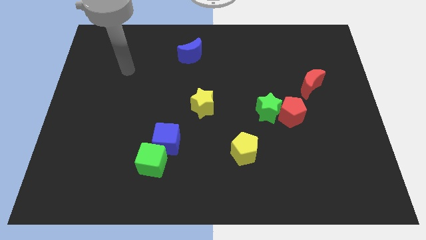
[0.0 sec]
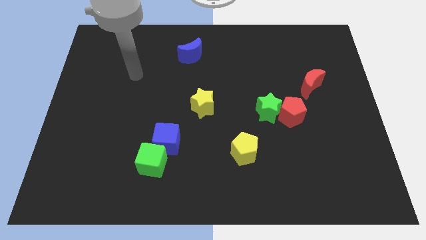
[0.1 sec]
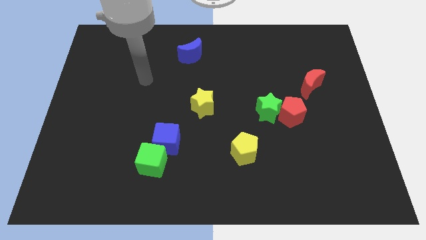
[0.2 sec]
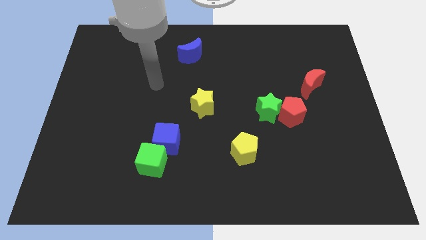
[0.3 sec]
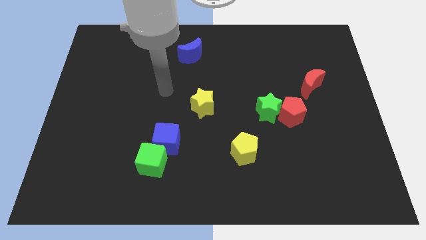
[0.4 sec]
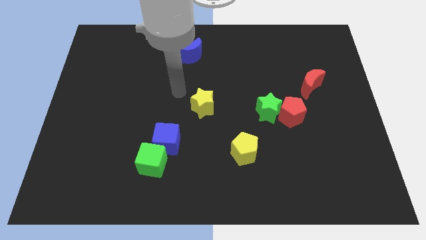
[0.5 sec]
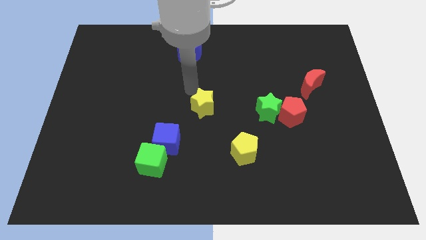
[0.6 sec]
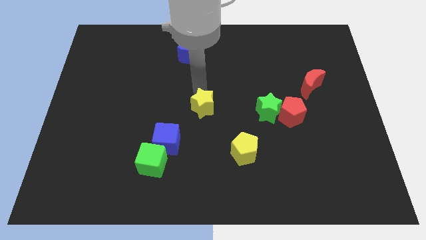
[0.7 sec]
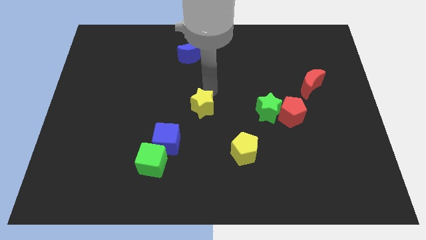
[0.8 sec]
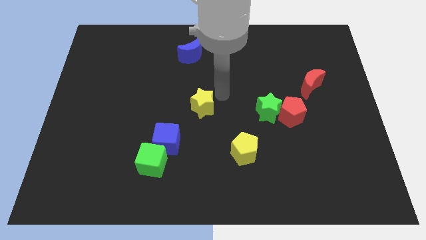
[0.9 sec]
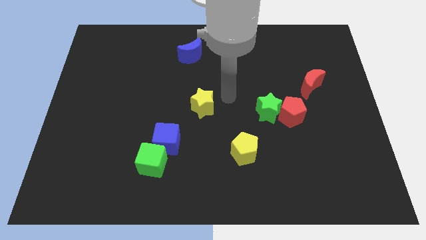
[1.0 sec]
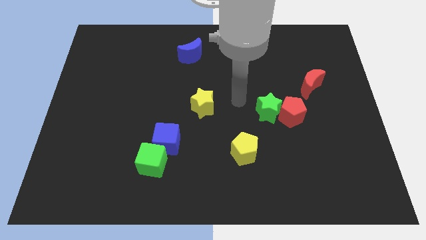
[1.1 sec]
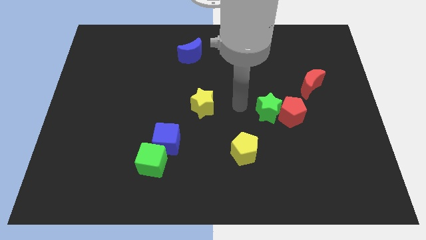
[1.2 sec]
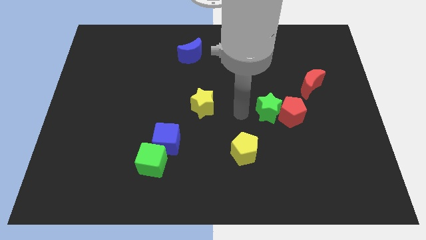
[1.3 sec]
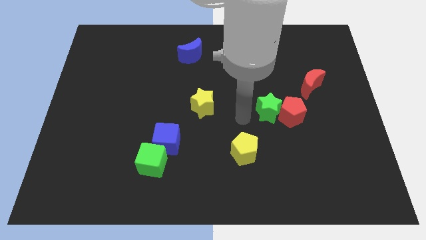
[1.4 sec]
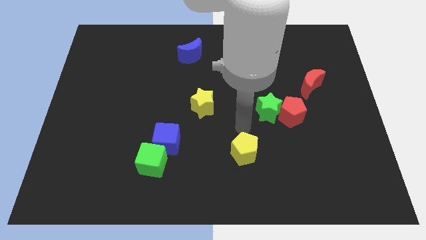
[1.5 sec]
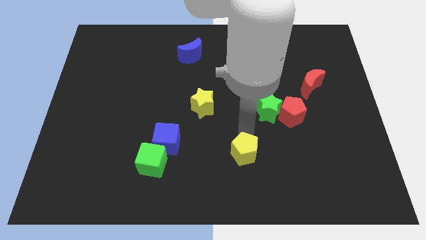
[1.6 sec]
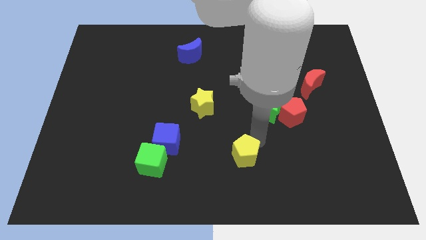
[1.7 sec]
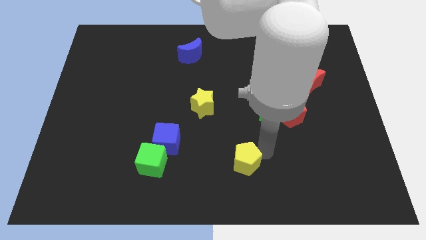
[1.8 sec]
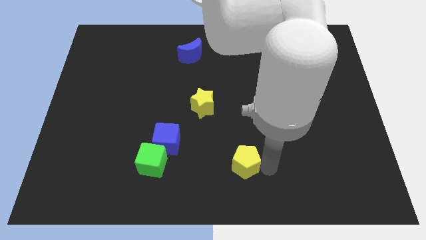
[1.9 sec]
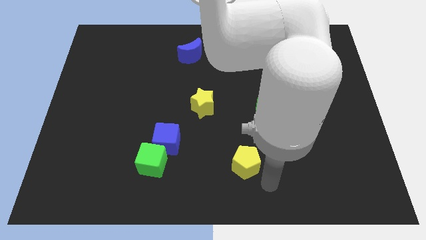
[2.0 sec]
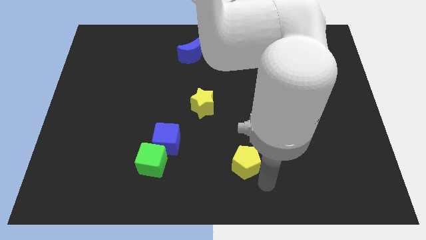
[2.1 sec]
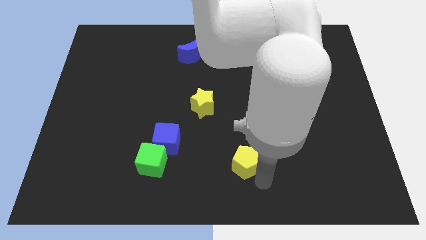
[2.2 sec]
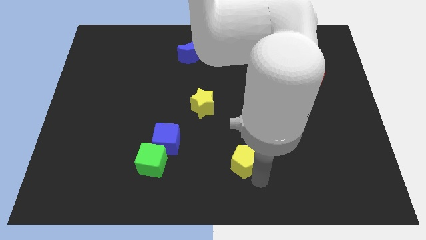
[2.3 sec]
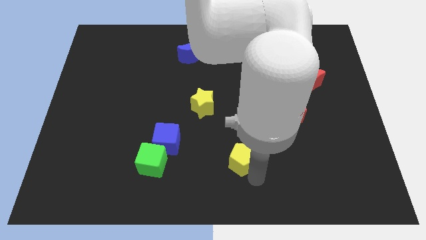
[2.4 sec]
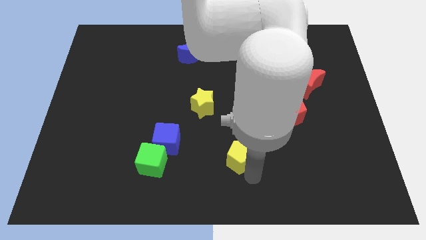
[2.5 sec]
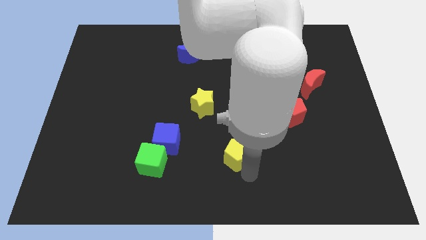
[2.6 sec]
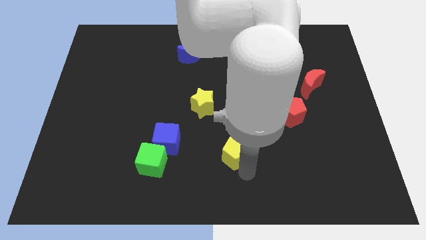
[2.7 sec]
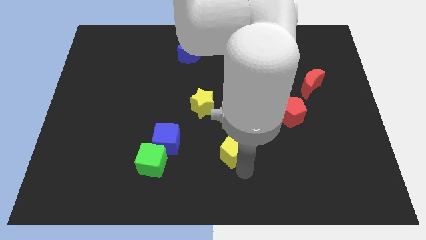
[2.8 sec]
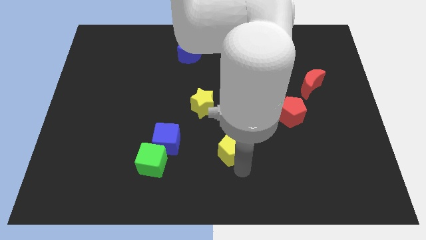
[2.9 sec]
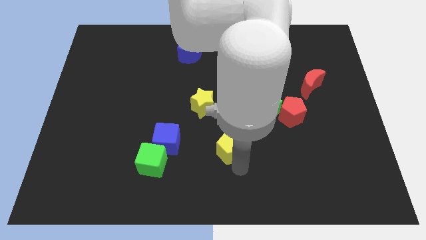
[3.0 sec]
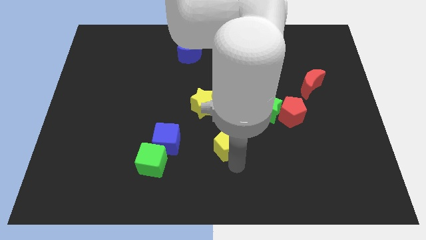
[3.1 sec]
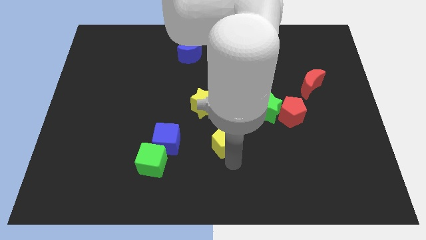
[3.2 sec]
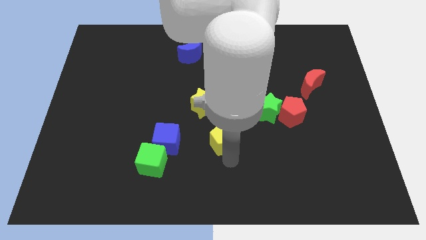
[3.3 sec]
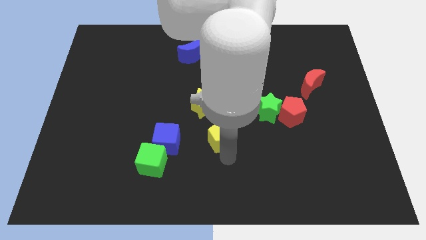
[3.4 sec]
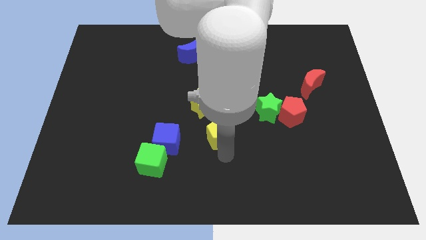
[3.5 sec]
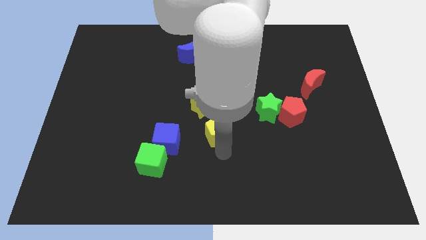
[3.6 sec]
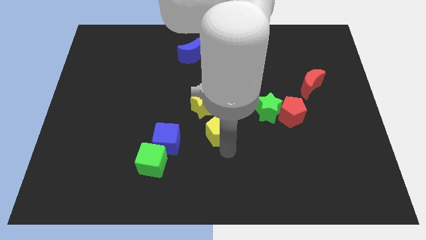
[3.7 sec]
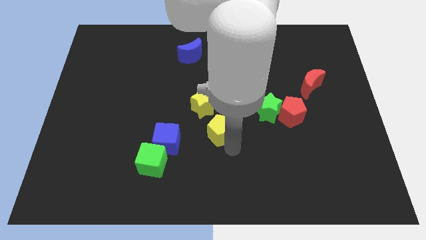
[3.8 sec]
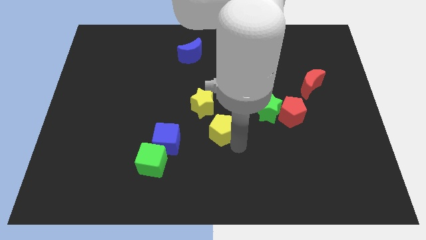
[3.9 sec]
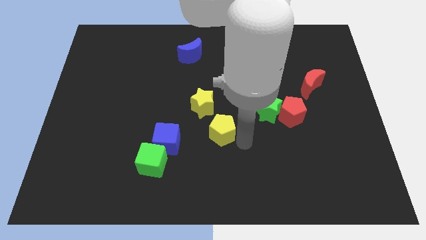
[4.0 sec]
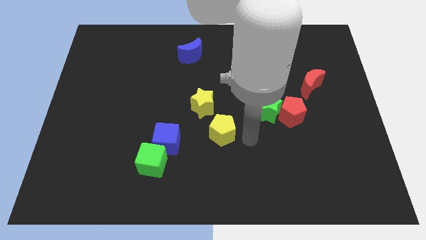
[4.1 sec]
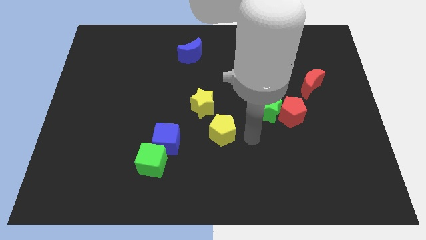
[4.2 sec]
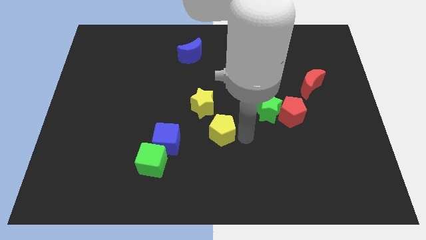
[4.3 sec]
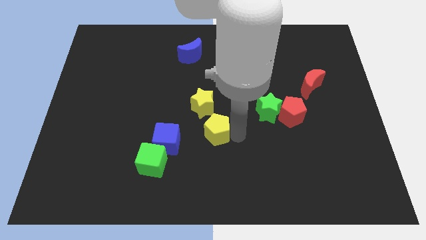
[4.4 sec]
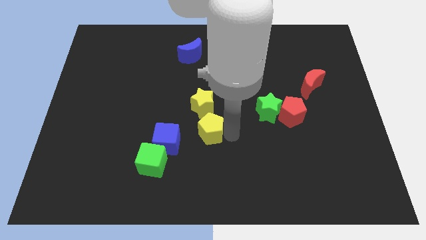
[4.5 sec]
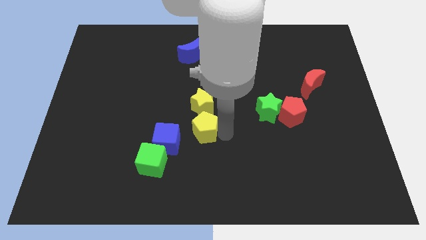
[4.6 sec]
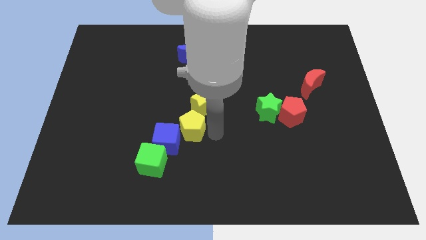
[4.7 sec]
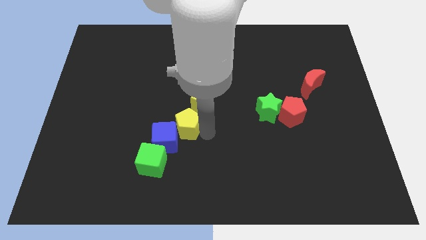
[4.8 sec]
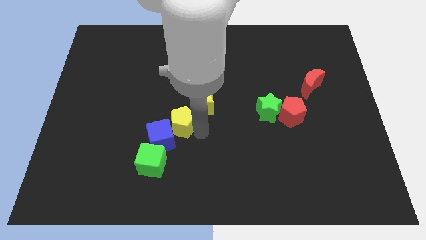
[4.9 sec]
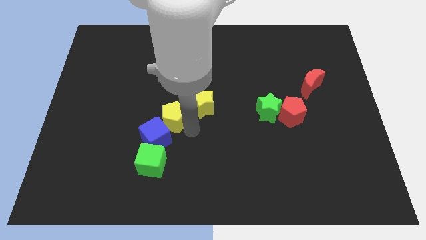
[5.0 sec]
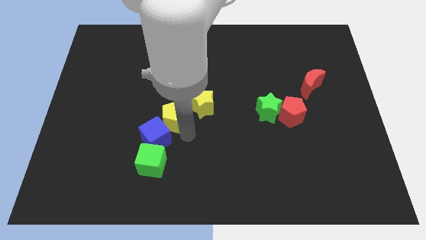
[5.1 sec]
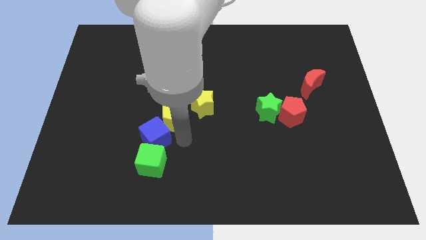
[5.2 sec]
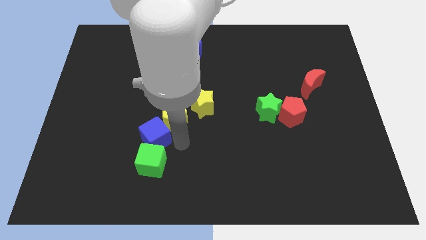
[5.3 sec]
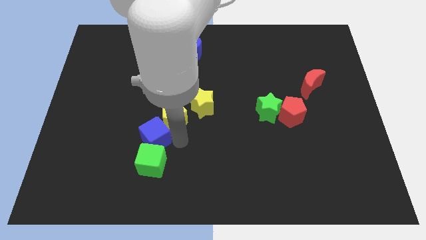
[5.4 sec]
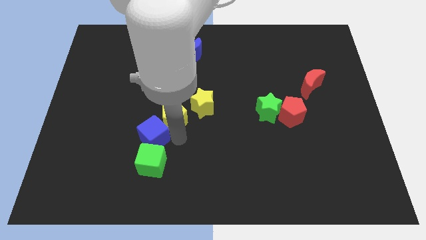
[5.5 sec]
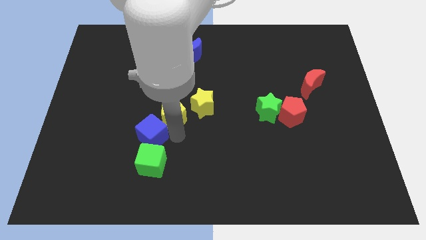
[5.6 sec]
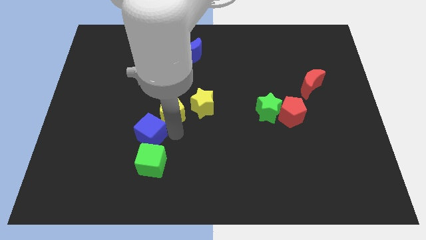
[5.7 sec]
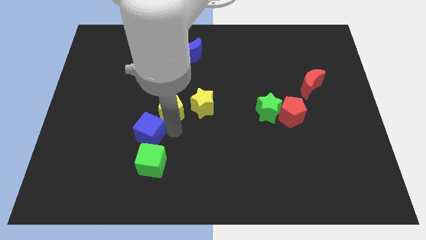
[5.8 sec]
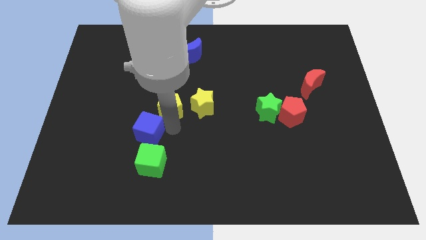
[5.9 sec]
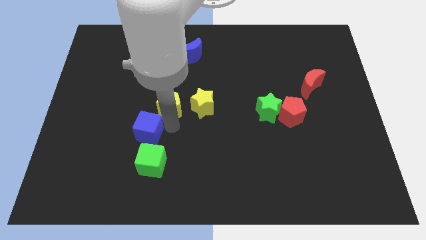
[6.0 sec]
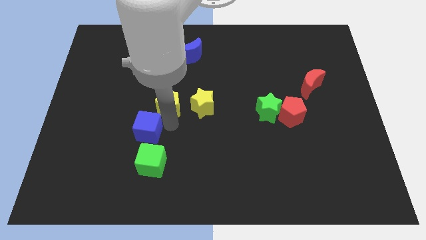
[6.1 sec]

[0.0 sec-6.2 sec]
move the yellow pentagon diagonally up and left

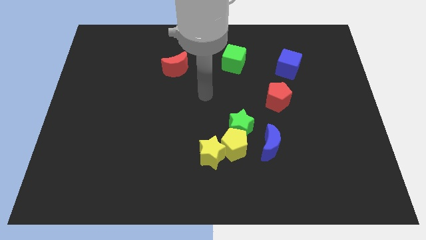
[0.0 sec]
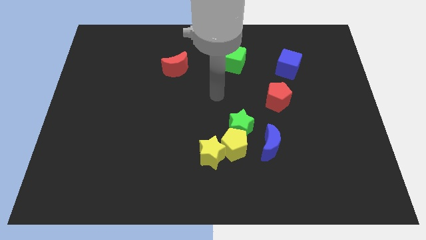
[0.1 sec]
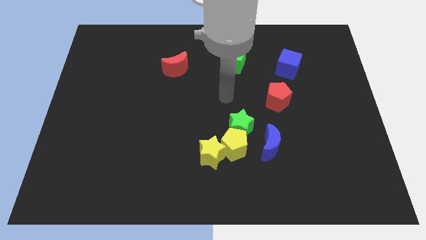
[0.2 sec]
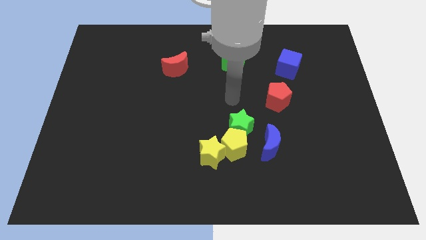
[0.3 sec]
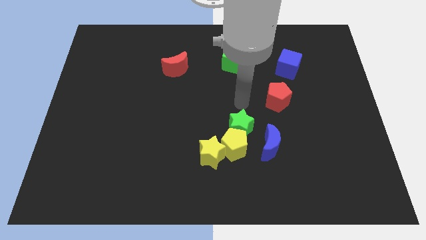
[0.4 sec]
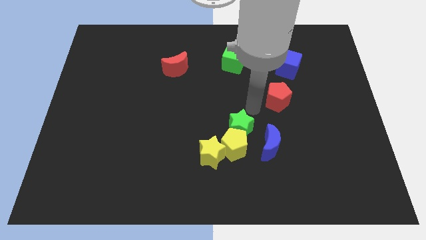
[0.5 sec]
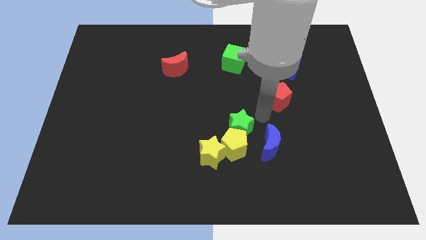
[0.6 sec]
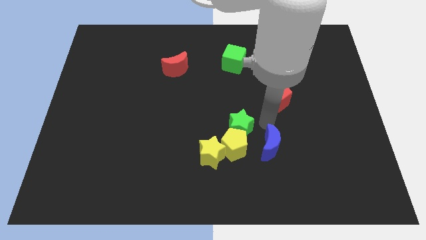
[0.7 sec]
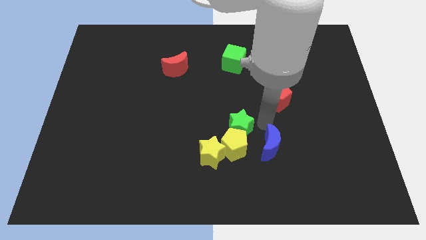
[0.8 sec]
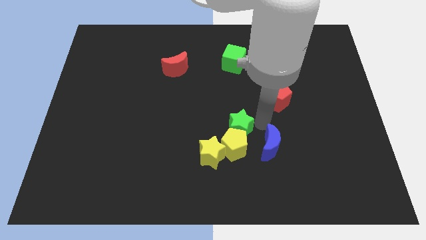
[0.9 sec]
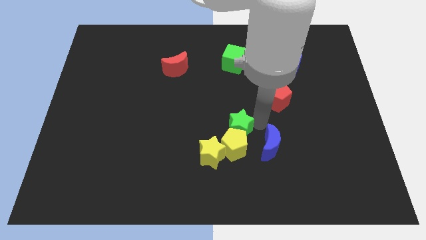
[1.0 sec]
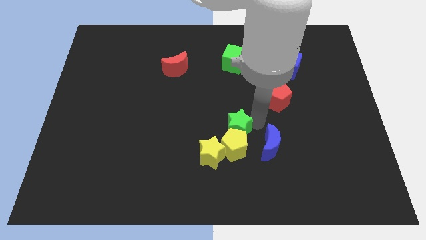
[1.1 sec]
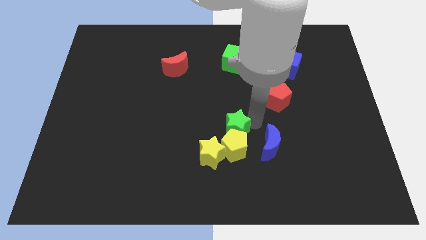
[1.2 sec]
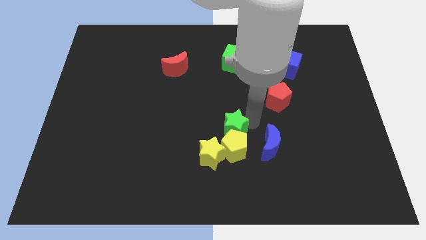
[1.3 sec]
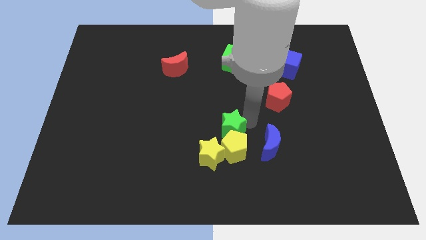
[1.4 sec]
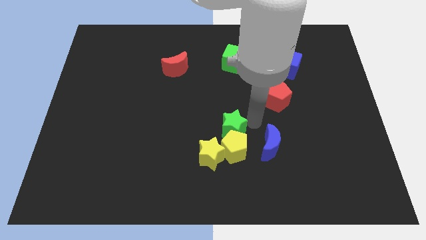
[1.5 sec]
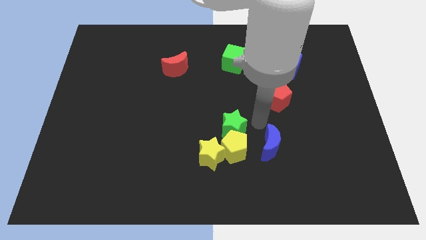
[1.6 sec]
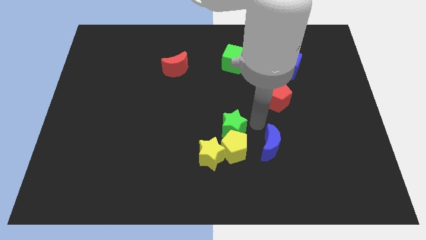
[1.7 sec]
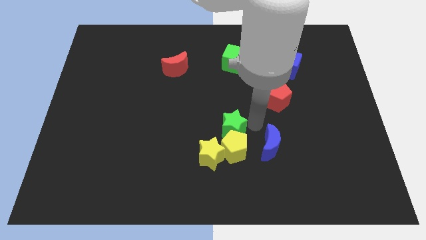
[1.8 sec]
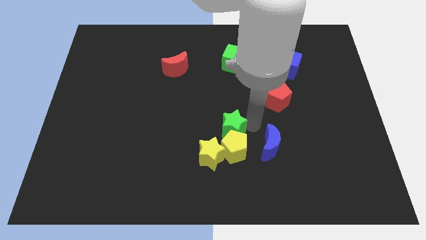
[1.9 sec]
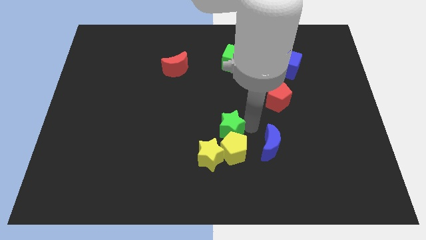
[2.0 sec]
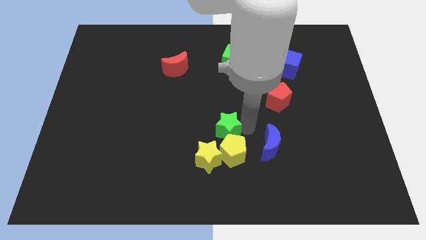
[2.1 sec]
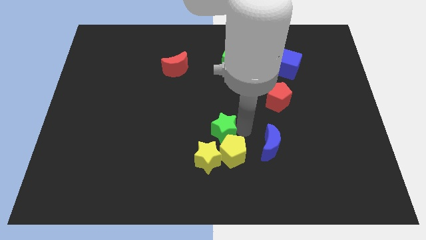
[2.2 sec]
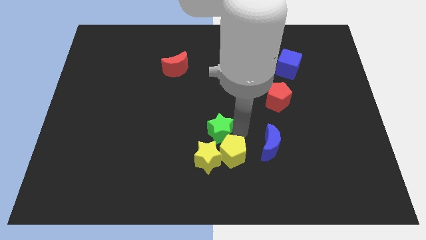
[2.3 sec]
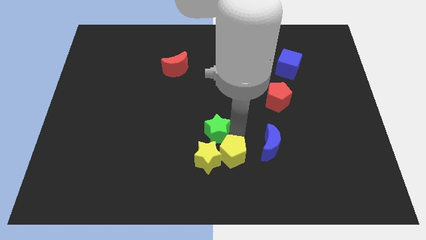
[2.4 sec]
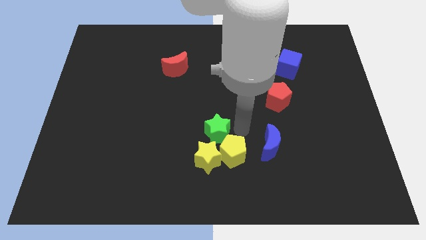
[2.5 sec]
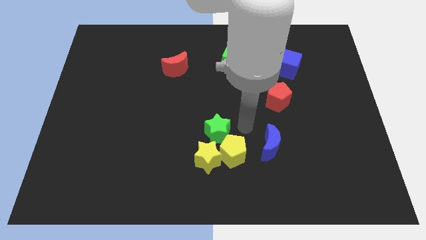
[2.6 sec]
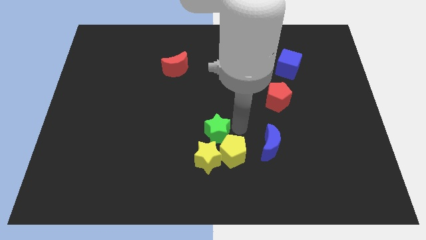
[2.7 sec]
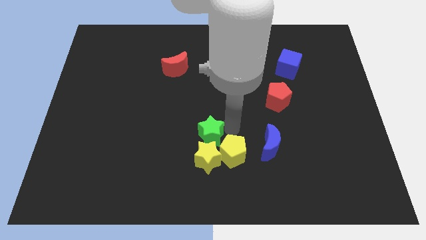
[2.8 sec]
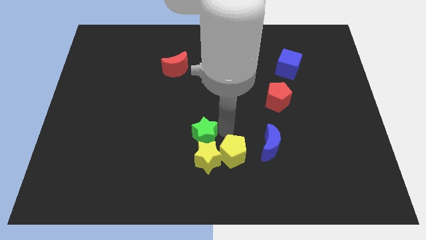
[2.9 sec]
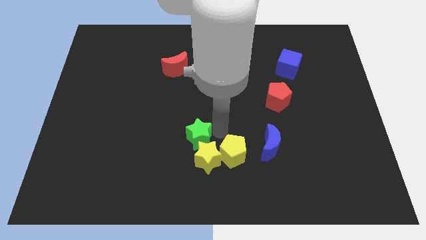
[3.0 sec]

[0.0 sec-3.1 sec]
move the green star down and then to the left a little
